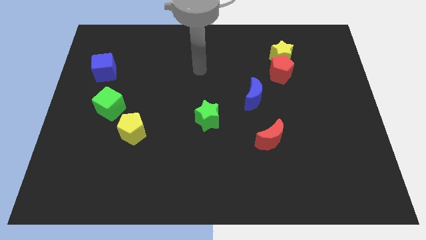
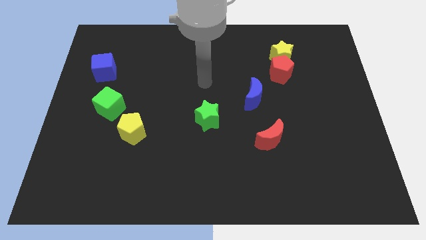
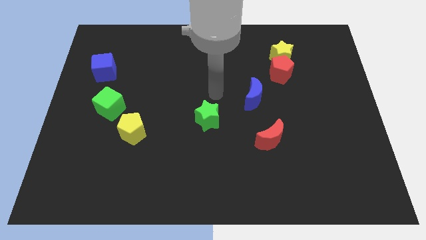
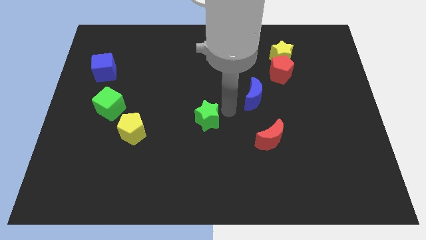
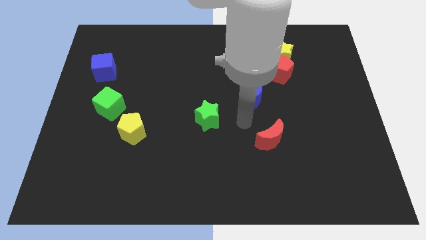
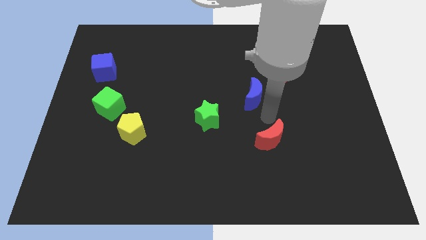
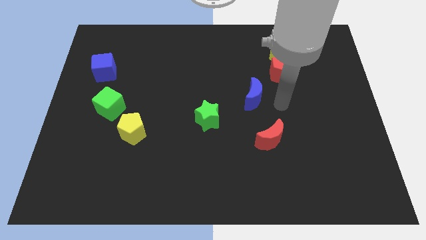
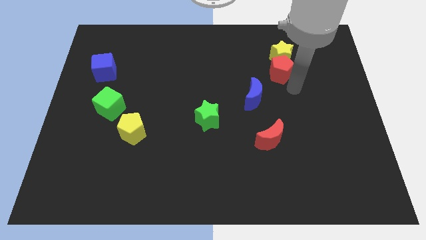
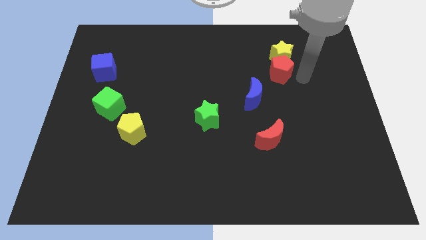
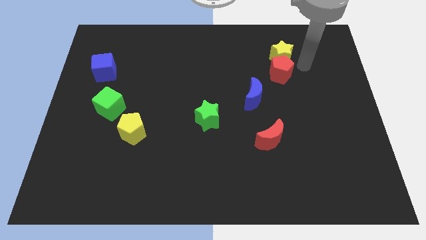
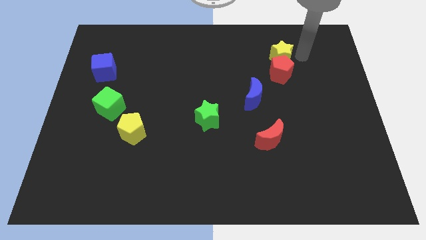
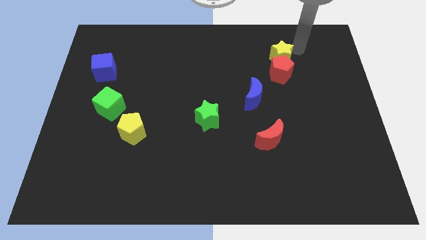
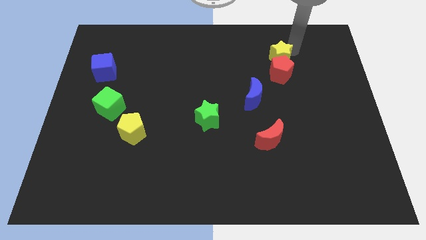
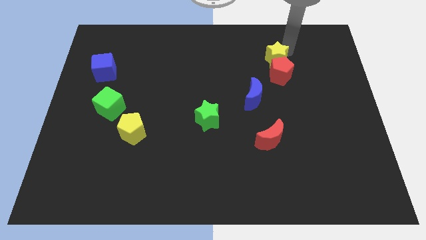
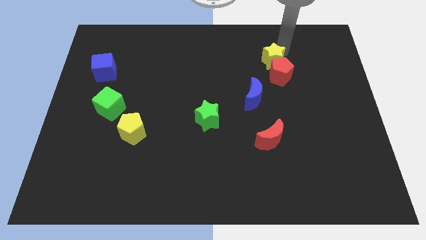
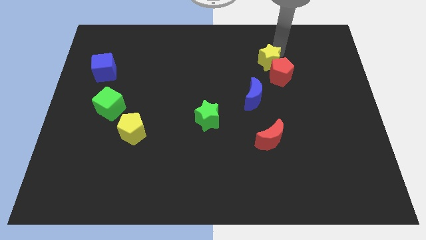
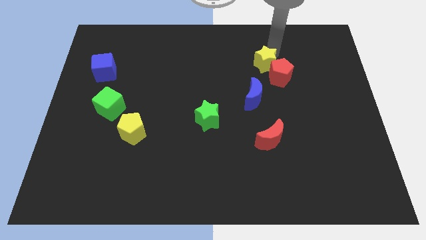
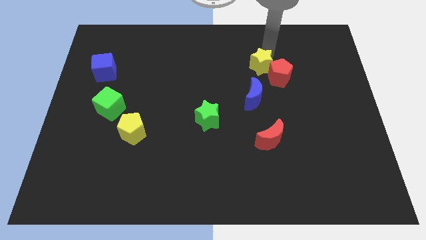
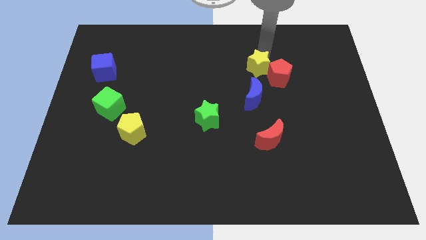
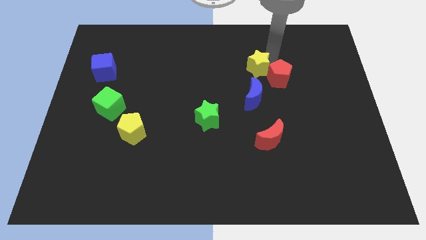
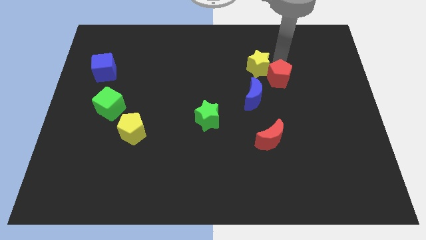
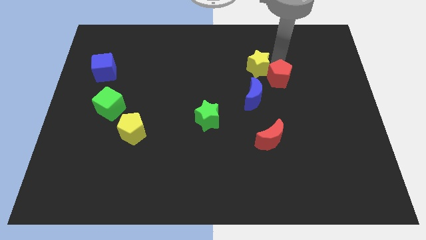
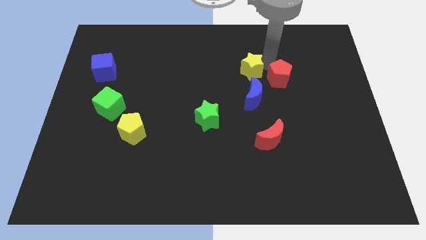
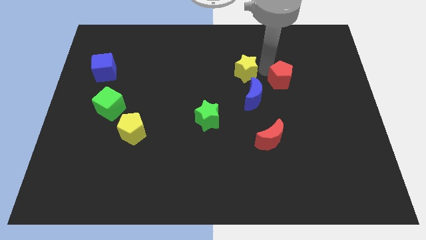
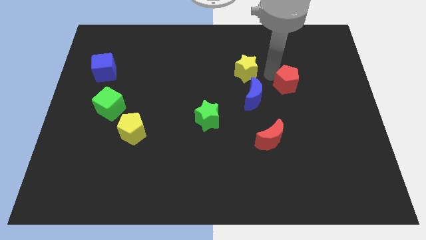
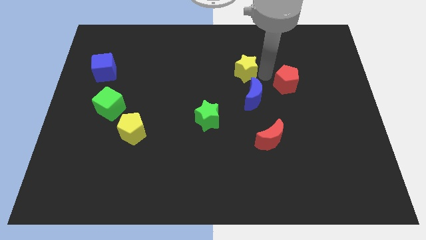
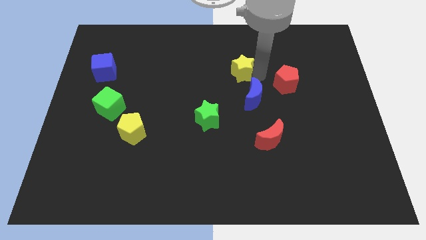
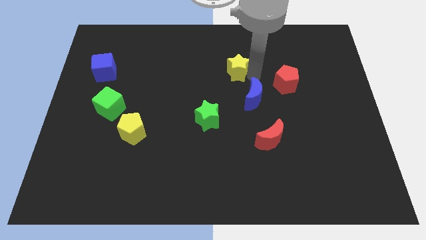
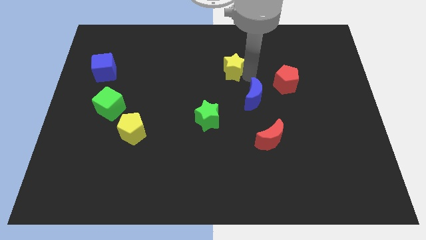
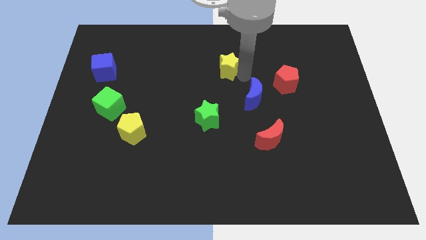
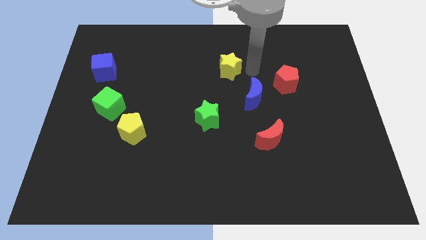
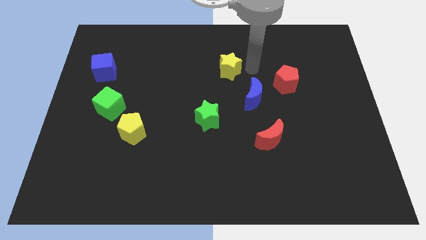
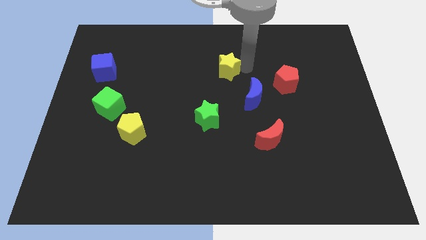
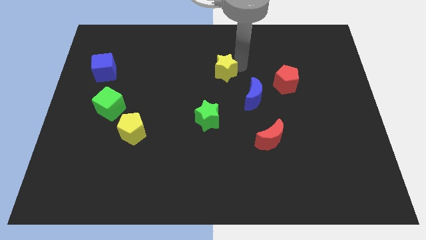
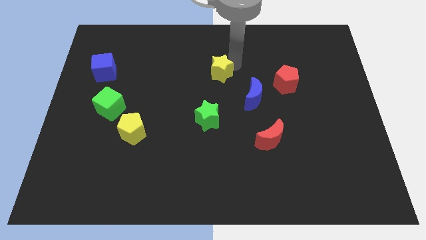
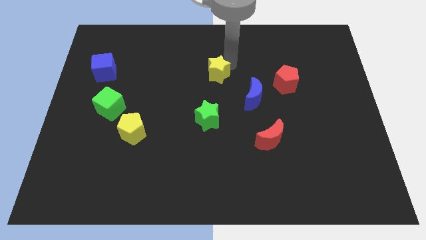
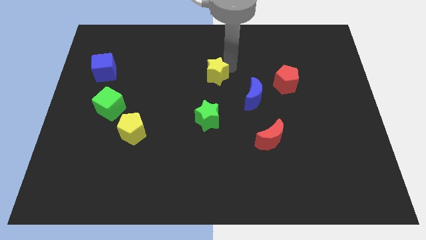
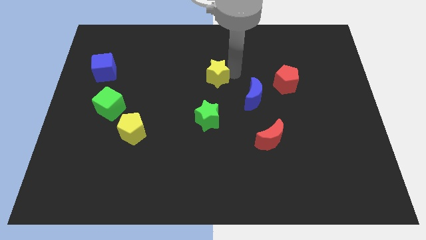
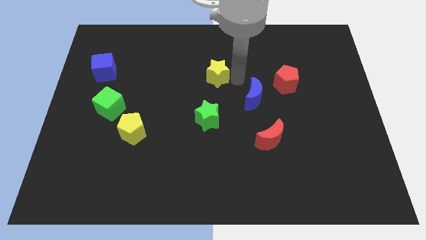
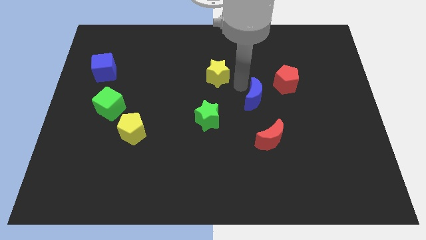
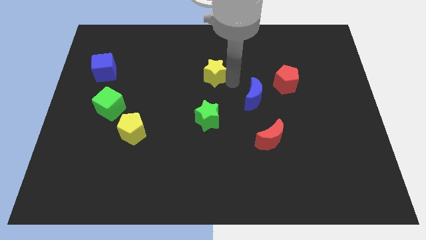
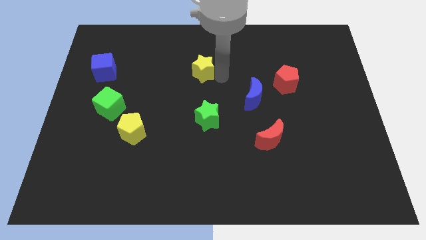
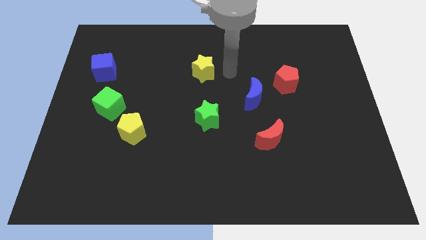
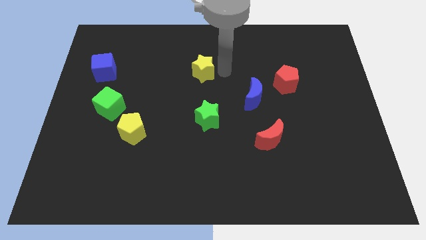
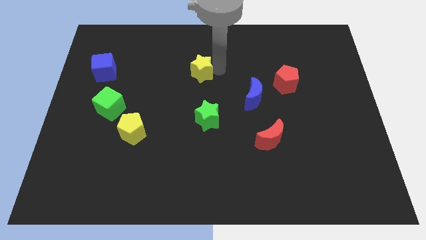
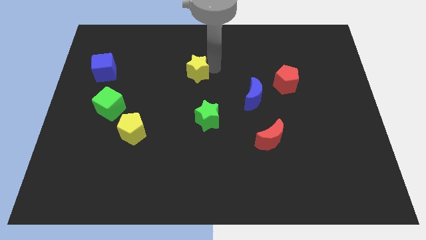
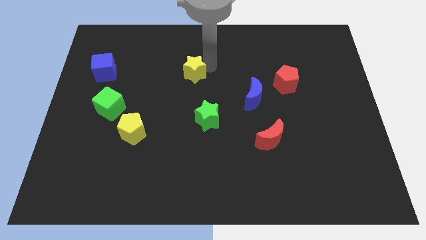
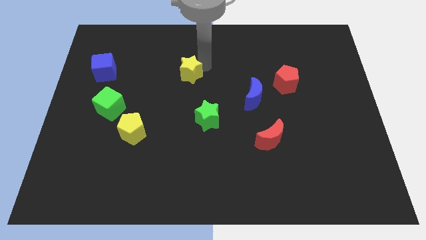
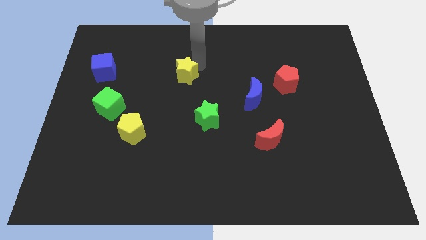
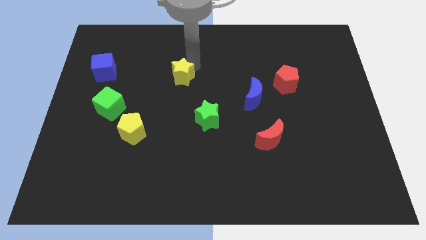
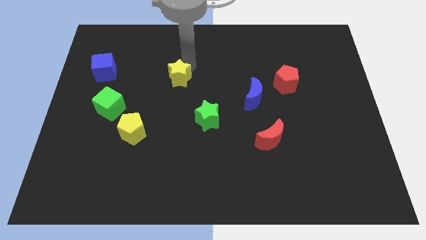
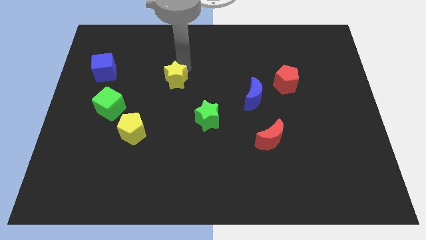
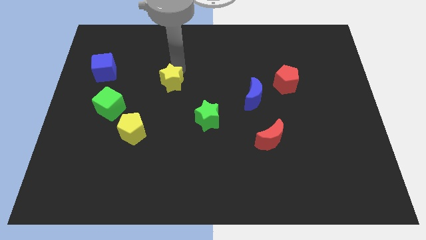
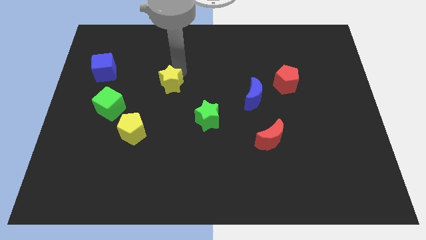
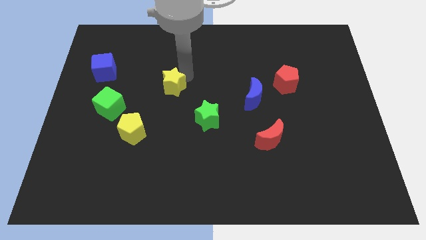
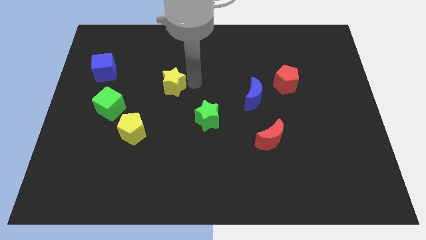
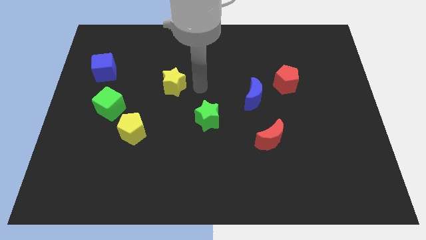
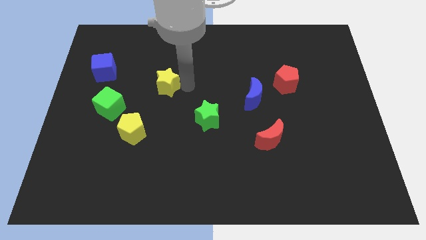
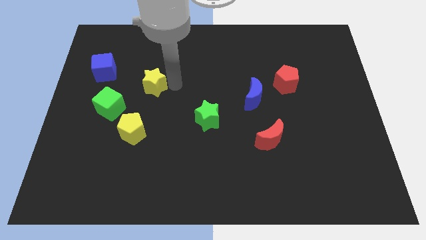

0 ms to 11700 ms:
move the yellow star diagonally up and to the right of the green cube

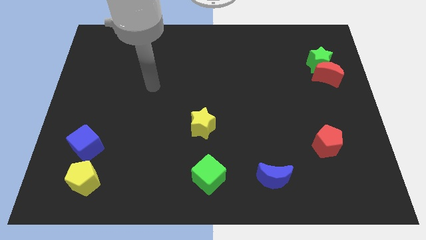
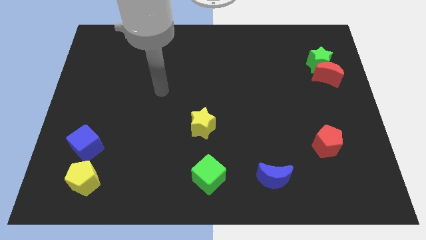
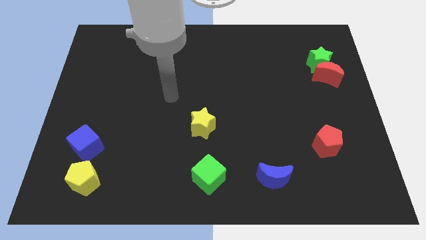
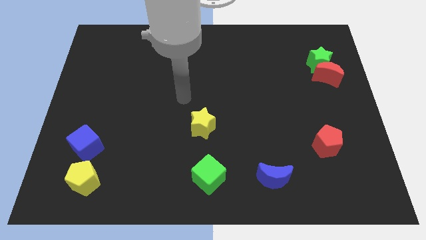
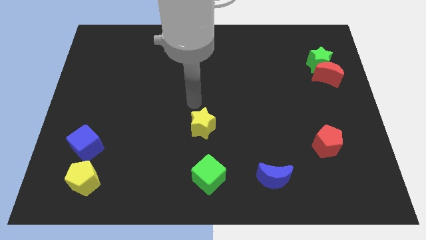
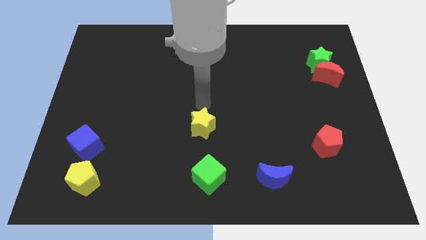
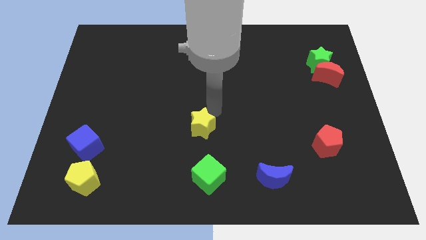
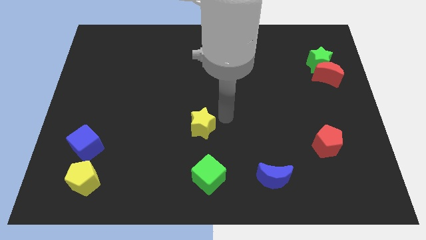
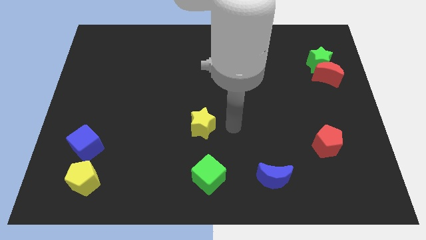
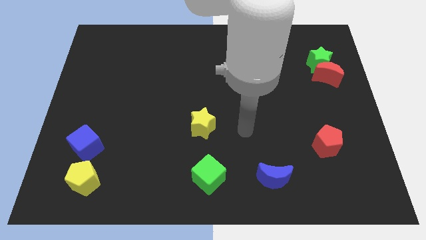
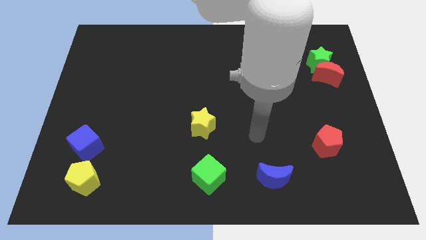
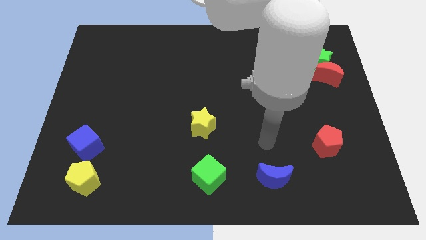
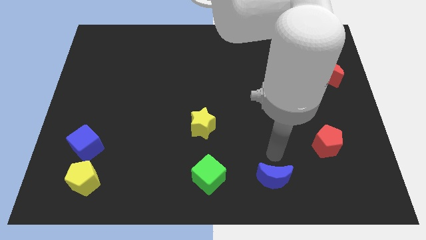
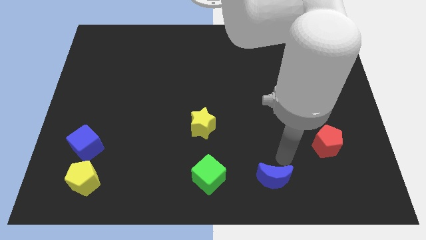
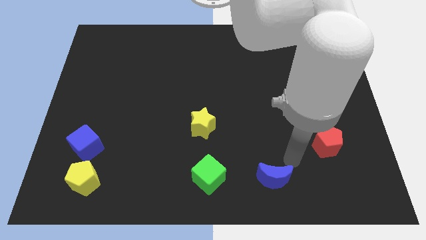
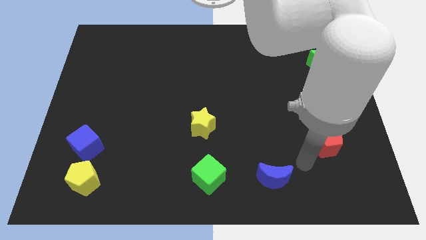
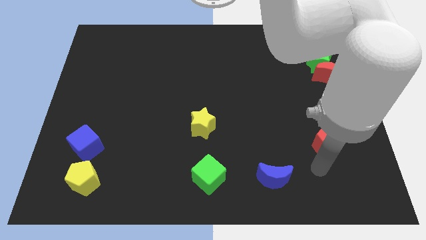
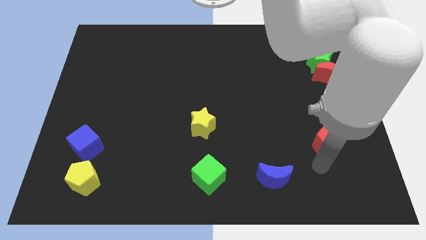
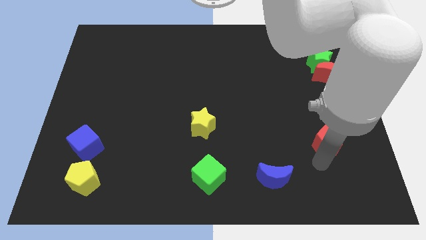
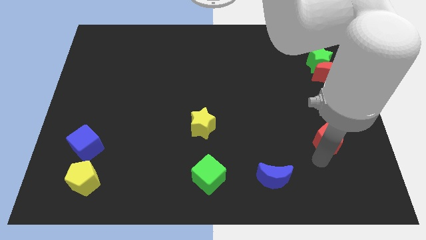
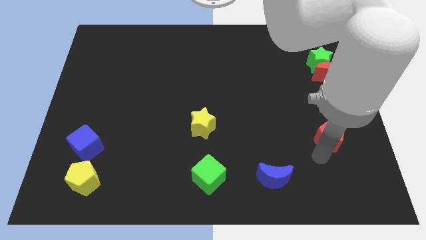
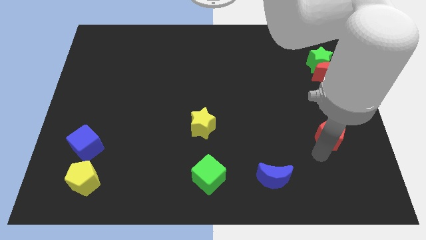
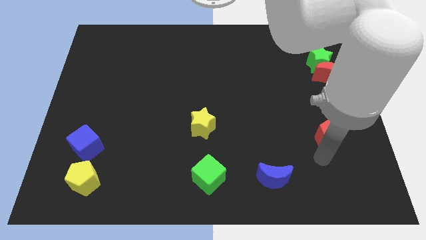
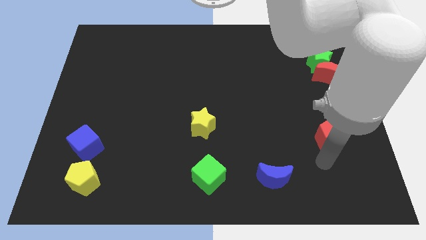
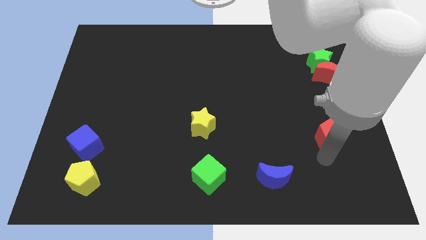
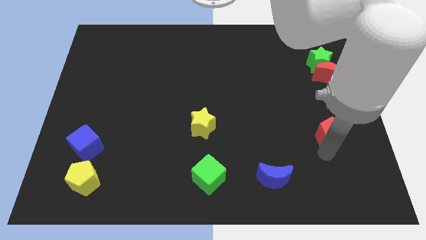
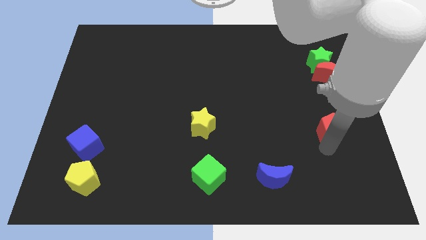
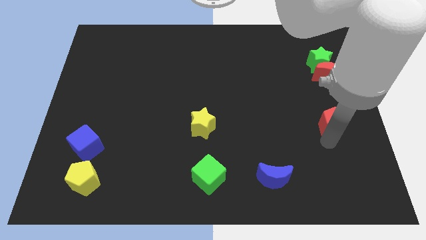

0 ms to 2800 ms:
move the red pentagon below the red moon
